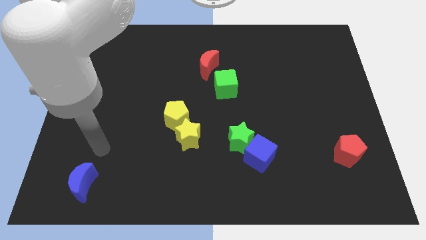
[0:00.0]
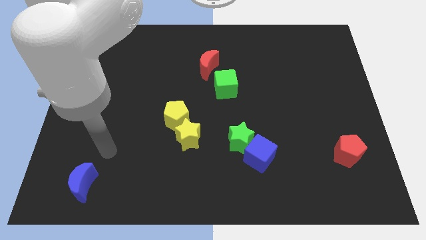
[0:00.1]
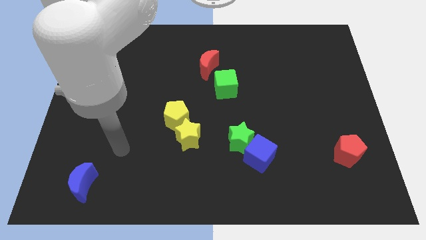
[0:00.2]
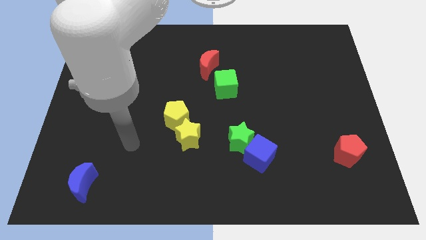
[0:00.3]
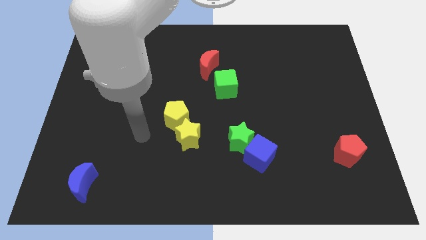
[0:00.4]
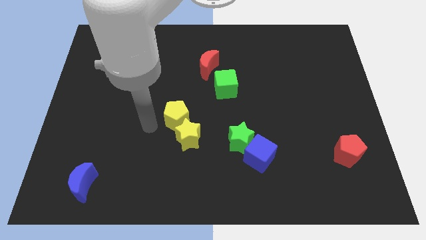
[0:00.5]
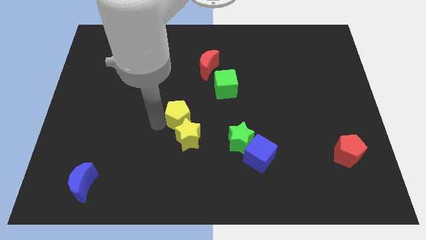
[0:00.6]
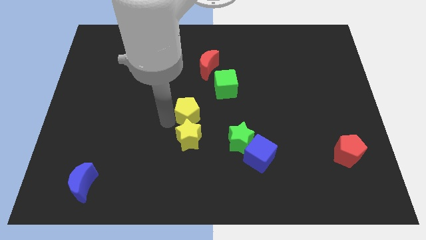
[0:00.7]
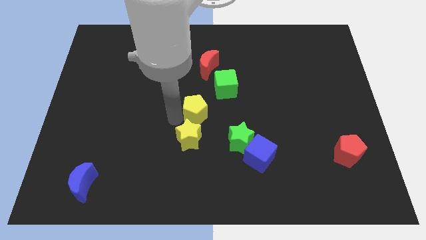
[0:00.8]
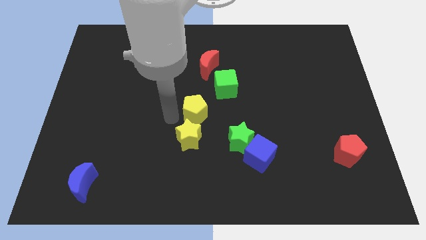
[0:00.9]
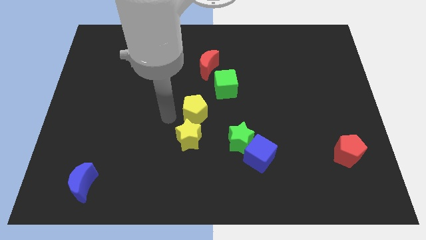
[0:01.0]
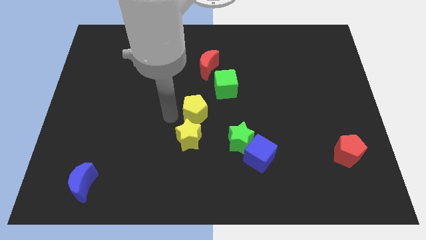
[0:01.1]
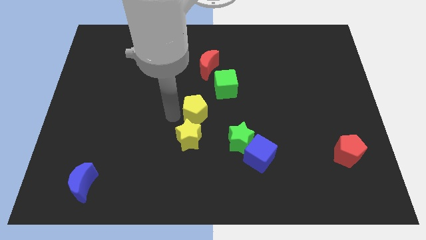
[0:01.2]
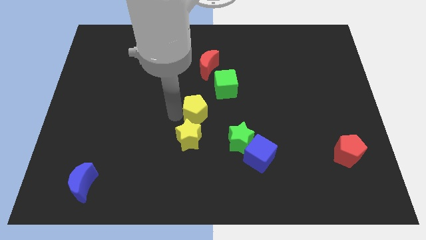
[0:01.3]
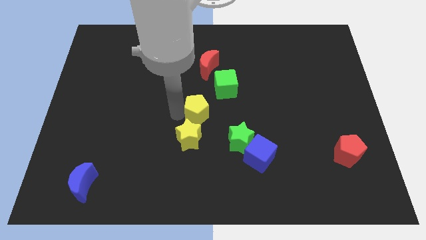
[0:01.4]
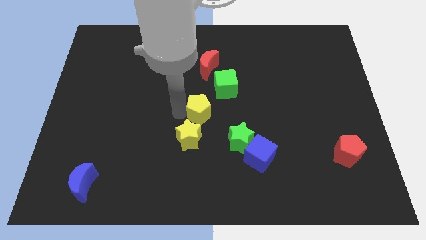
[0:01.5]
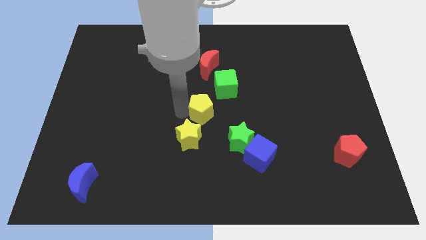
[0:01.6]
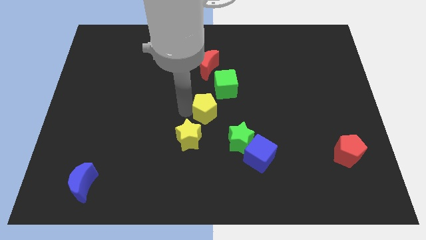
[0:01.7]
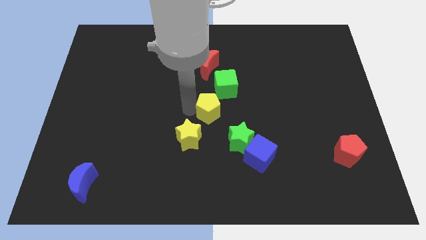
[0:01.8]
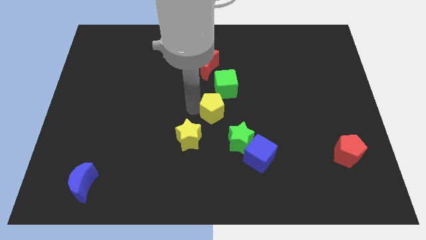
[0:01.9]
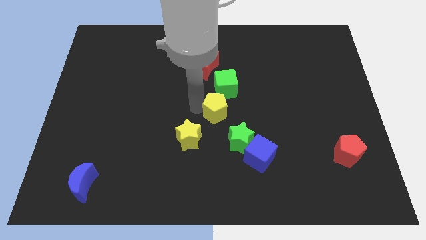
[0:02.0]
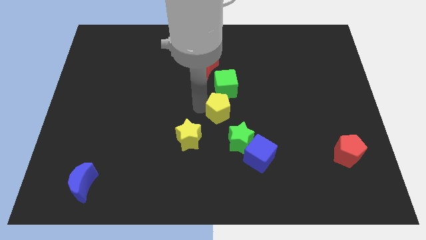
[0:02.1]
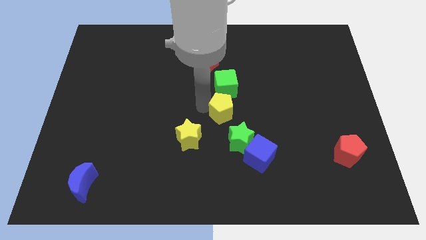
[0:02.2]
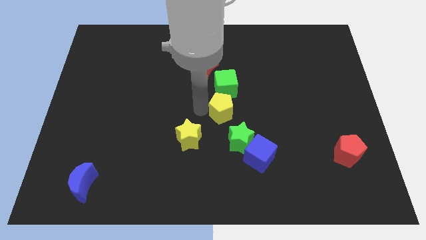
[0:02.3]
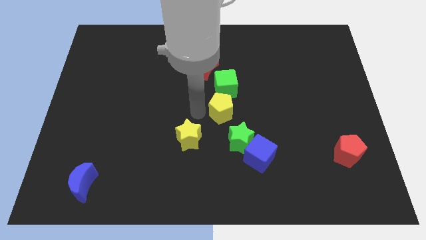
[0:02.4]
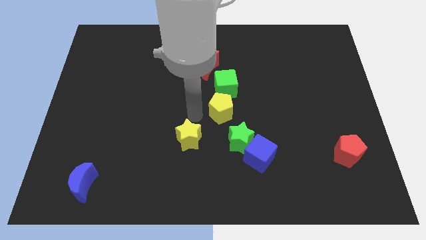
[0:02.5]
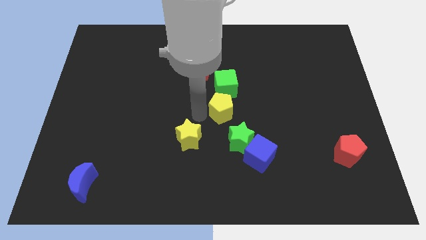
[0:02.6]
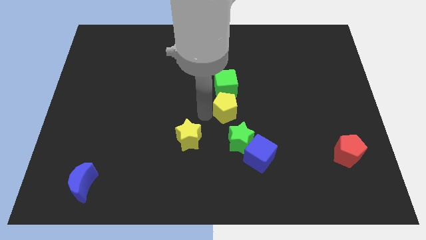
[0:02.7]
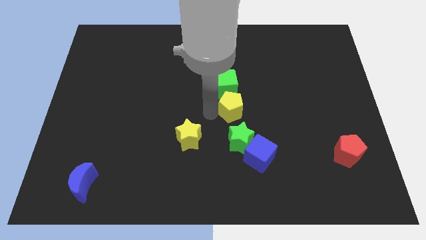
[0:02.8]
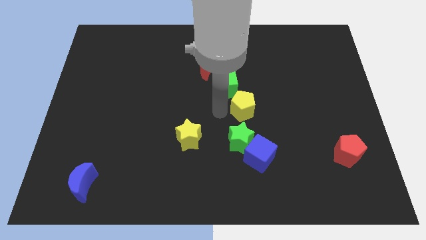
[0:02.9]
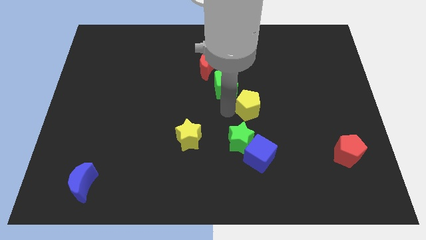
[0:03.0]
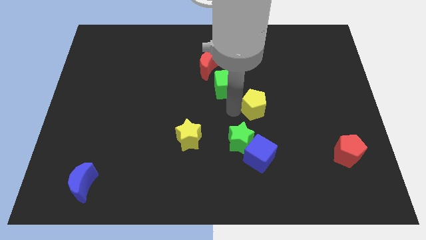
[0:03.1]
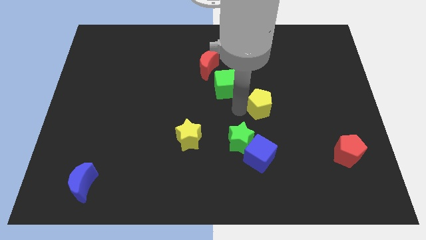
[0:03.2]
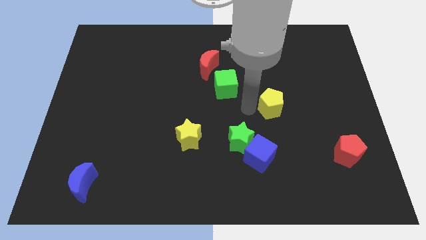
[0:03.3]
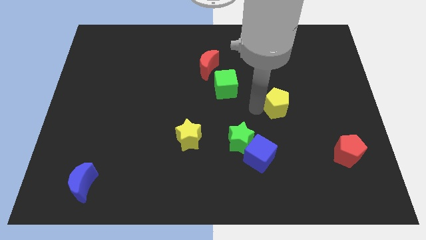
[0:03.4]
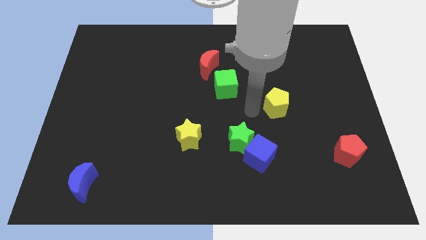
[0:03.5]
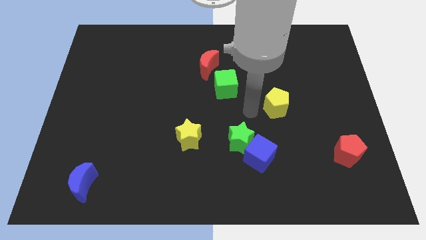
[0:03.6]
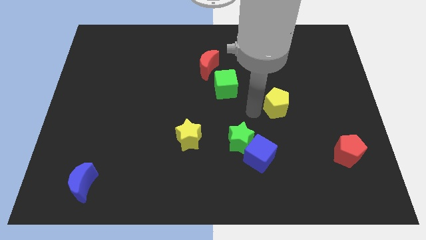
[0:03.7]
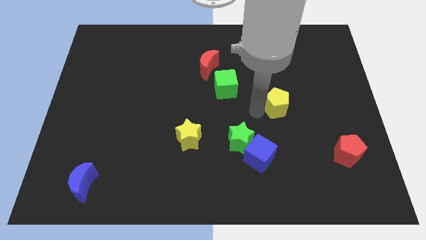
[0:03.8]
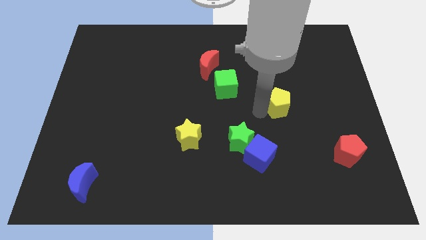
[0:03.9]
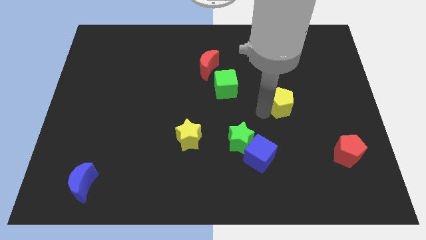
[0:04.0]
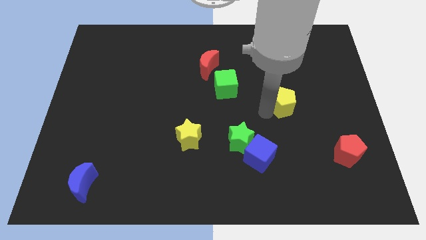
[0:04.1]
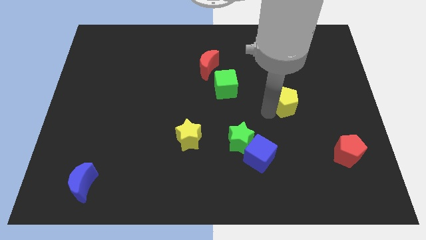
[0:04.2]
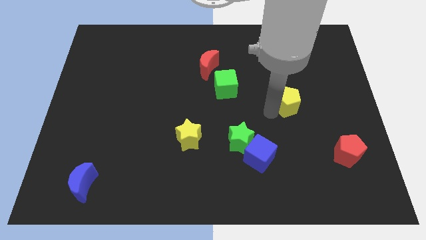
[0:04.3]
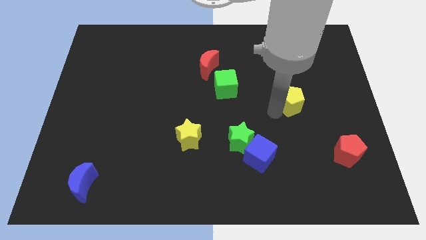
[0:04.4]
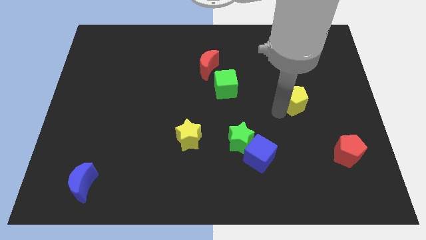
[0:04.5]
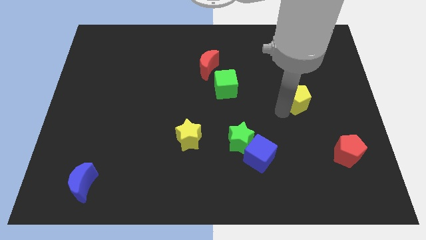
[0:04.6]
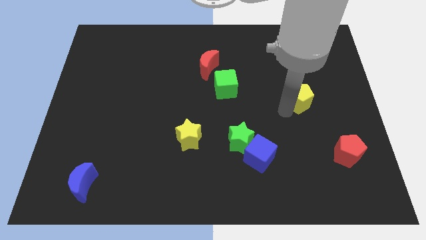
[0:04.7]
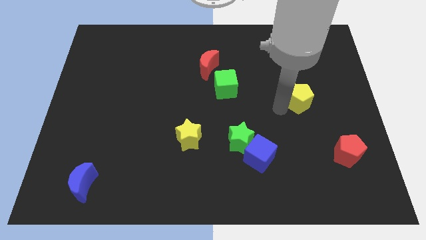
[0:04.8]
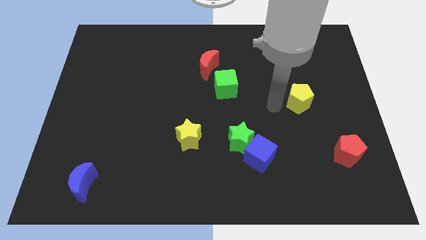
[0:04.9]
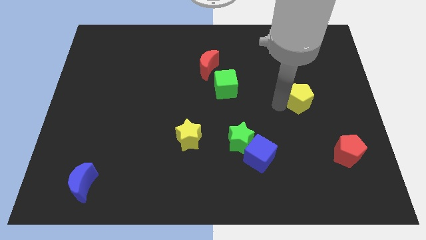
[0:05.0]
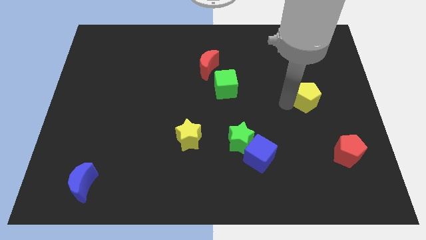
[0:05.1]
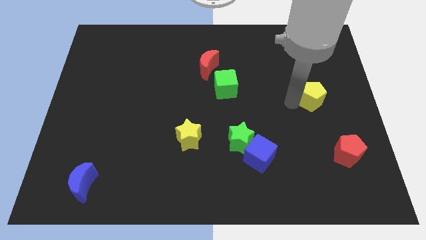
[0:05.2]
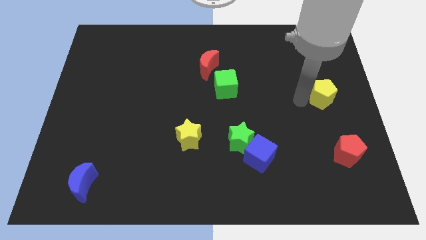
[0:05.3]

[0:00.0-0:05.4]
push the yellow pentagon to the right side
